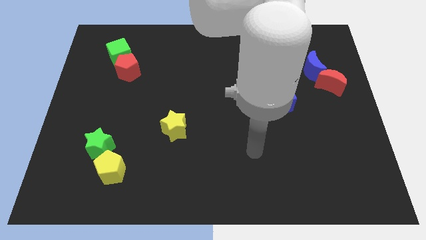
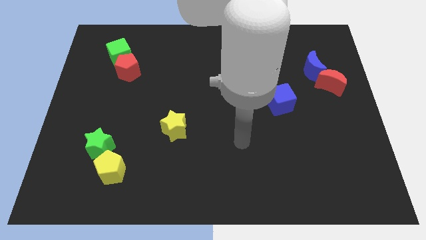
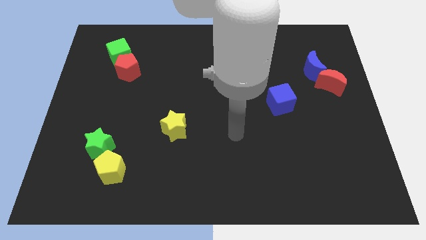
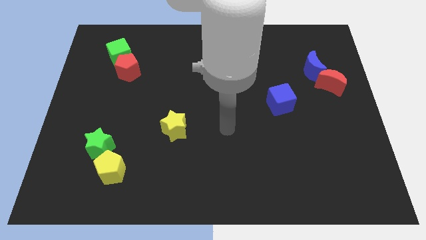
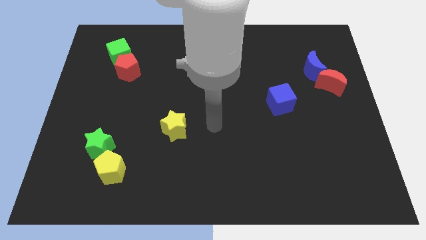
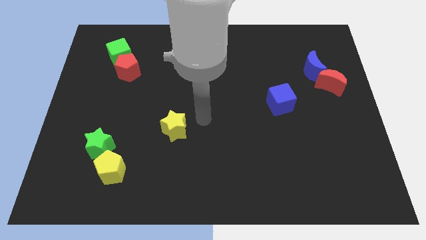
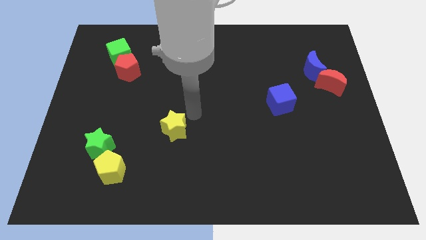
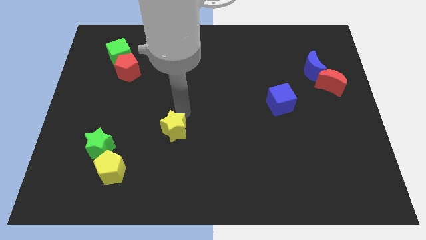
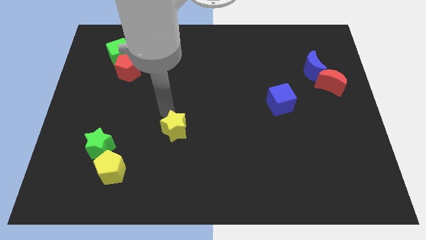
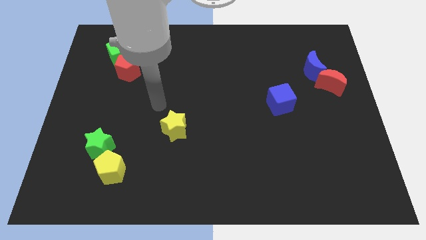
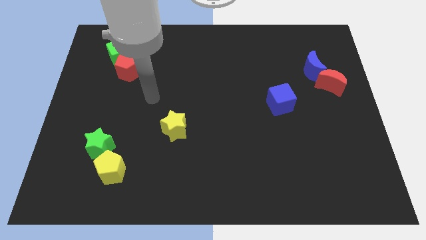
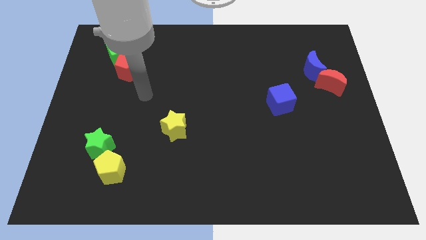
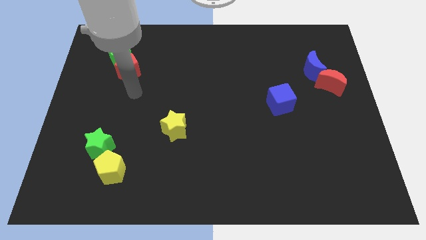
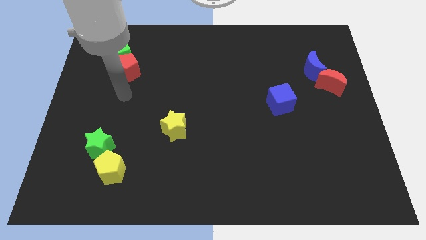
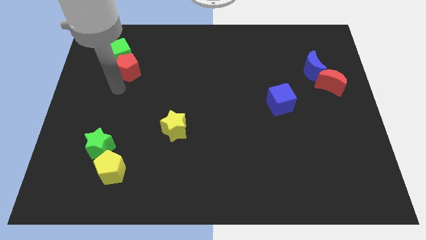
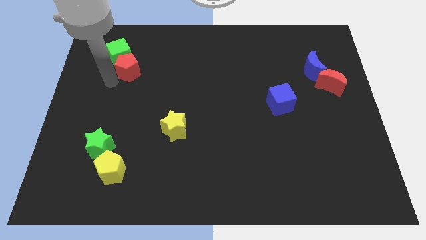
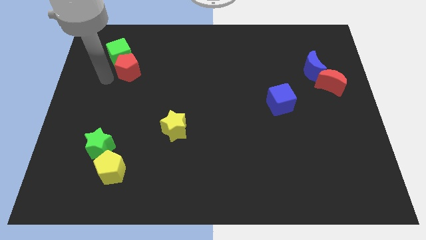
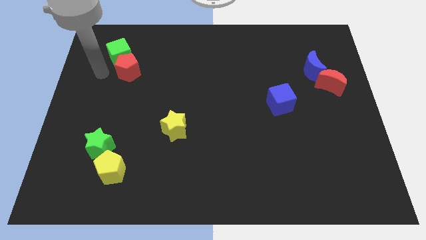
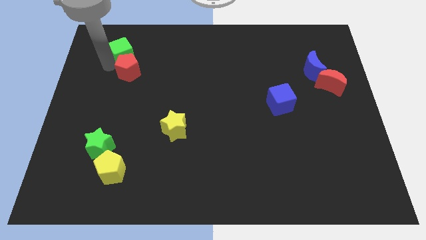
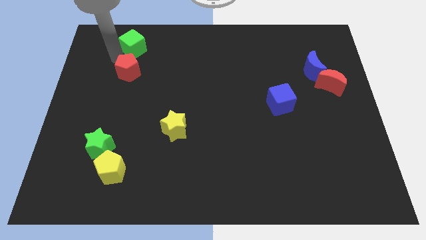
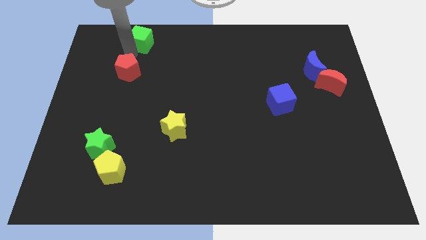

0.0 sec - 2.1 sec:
separate the red pentagon from the green cube

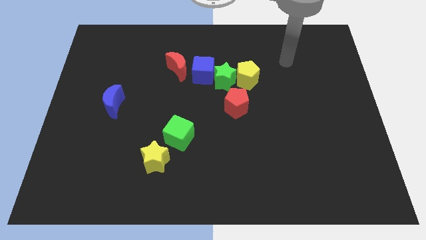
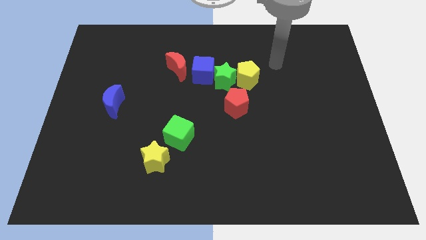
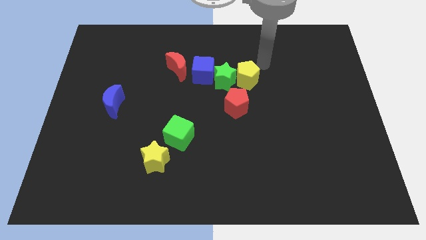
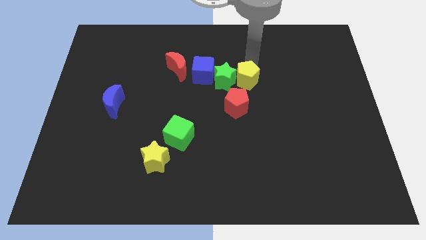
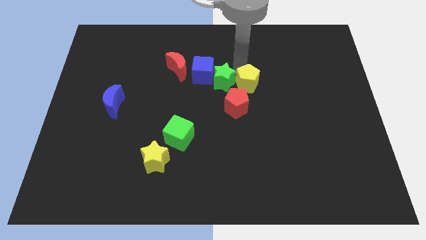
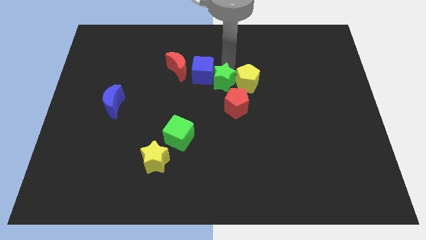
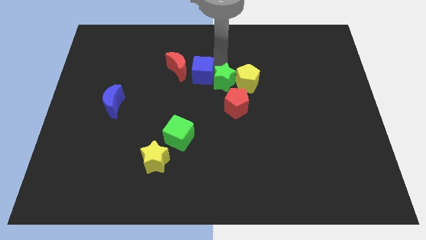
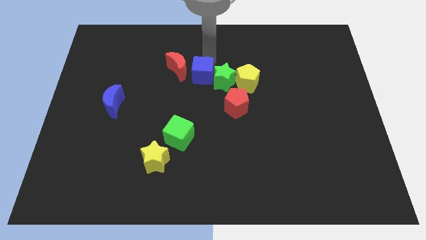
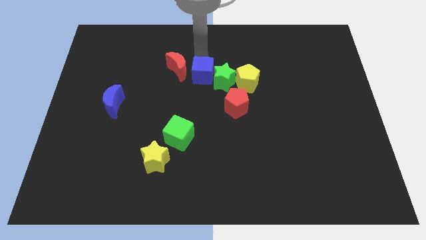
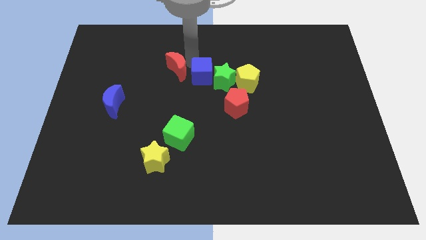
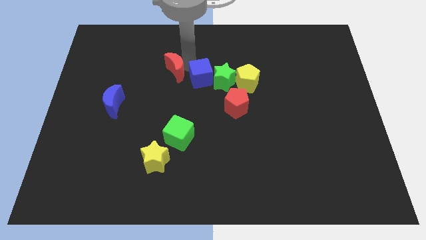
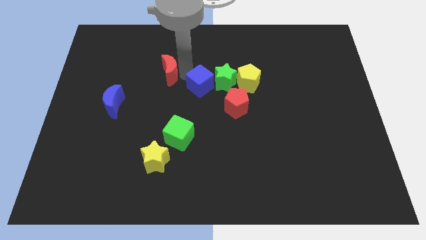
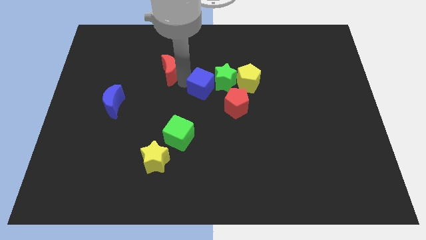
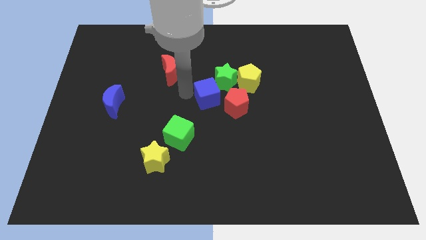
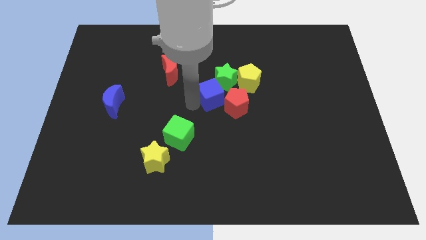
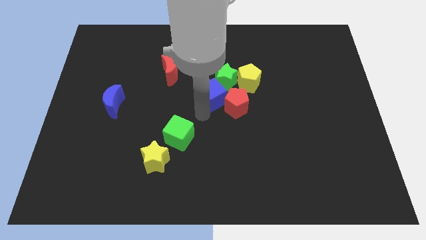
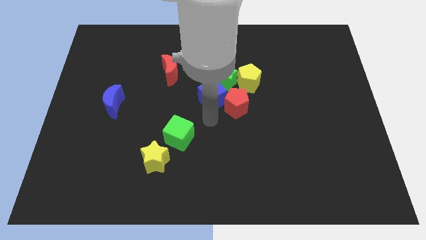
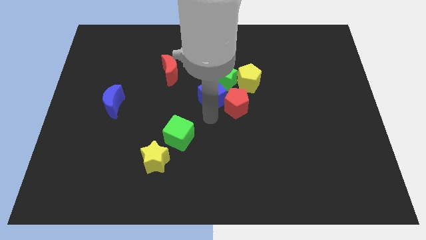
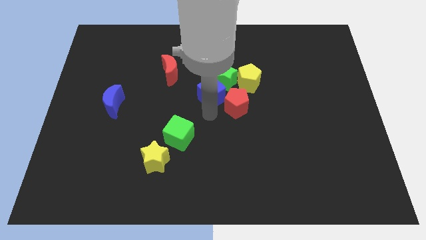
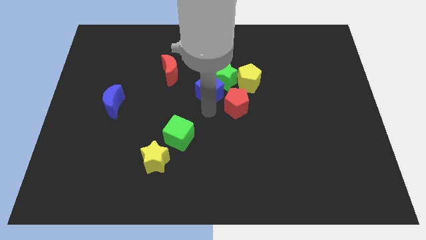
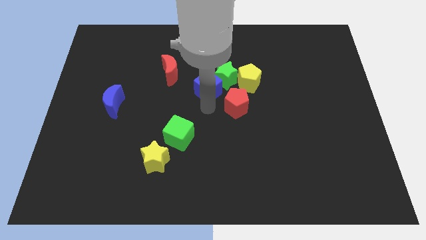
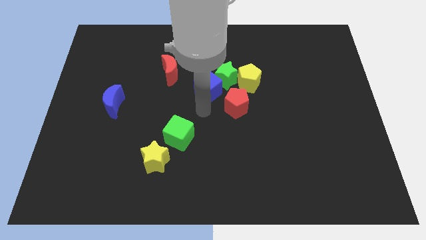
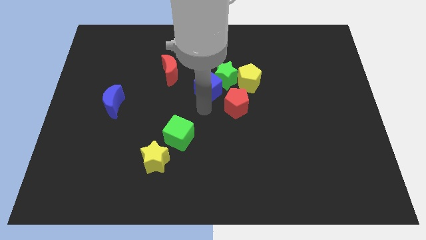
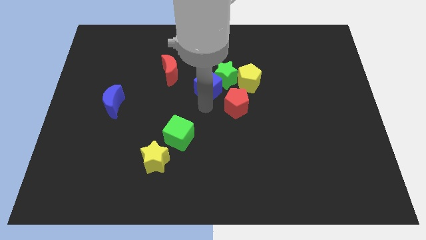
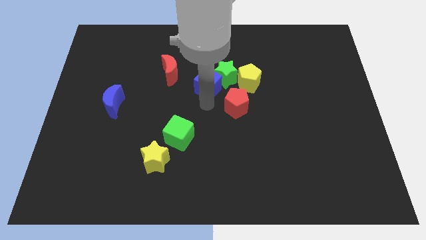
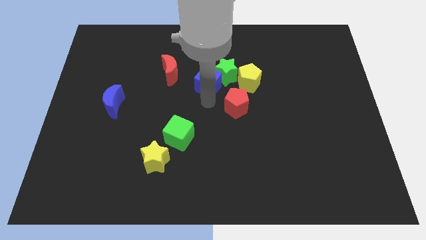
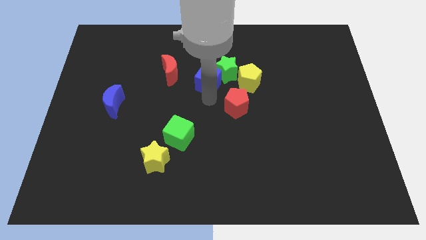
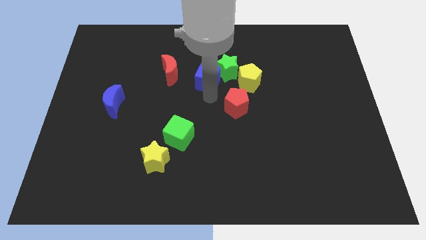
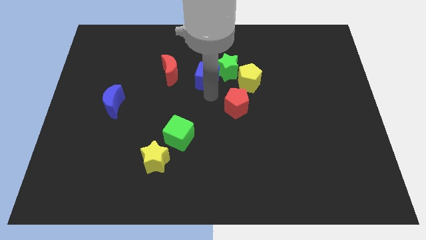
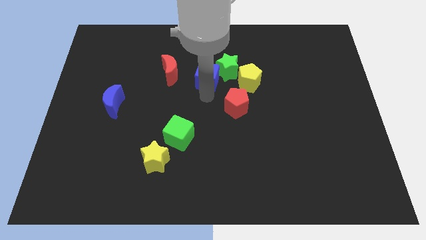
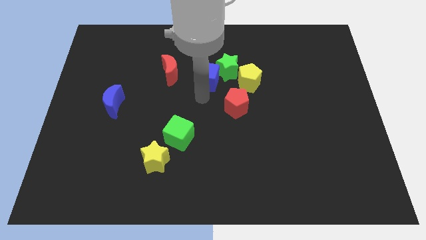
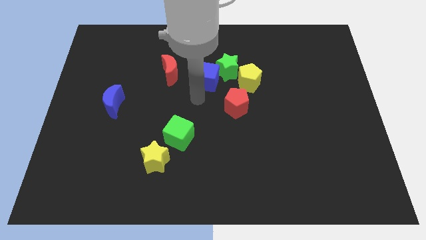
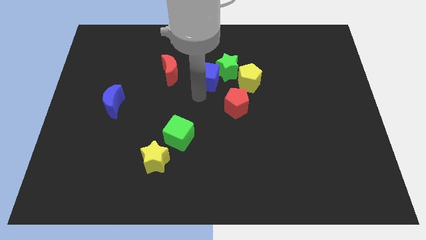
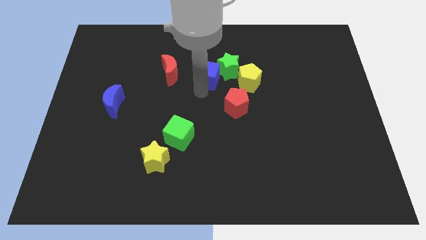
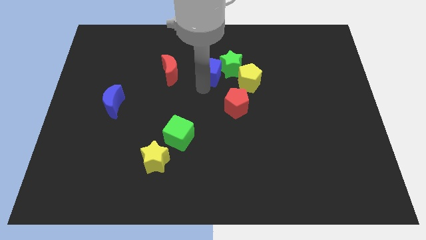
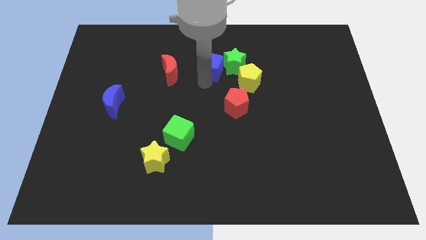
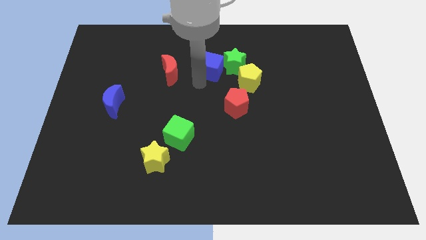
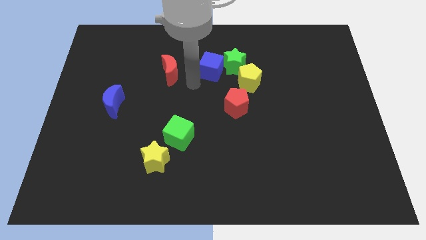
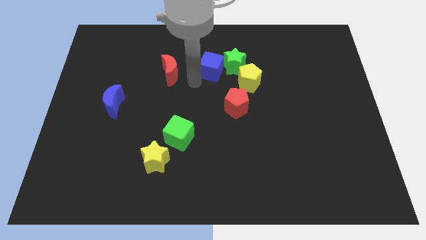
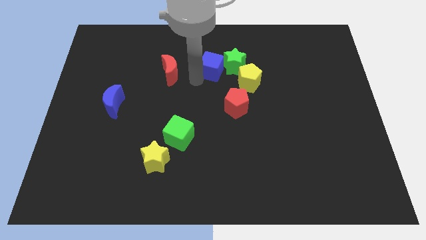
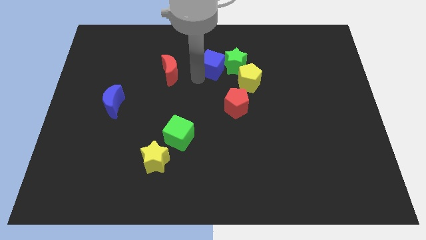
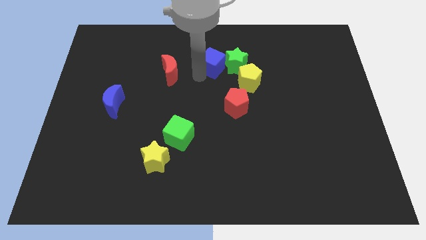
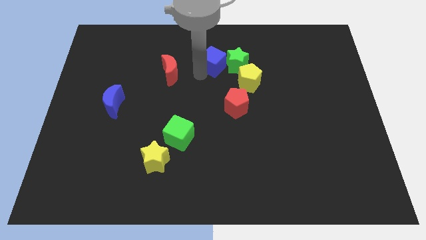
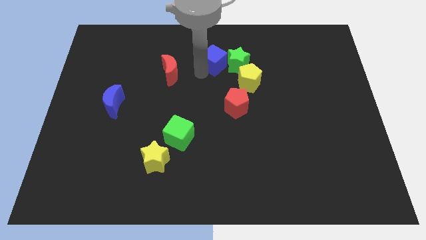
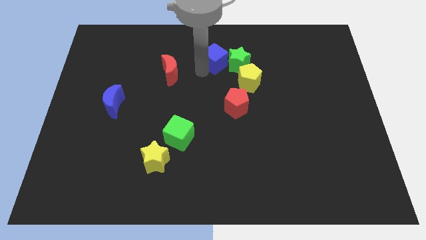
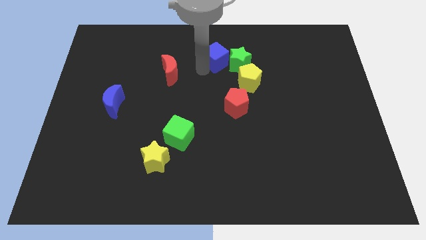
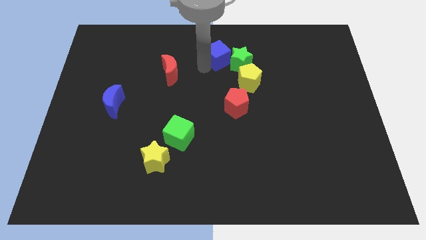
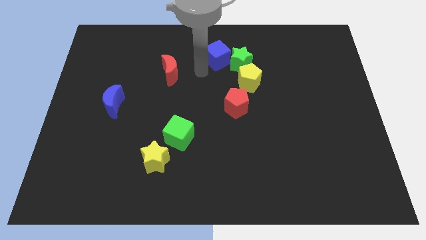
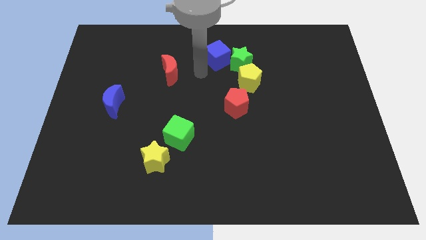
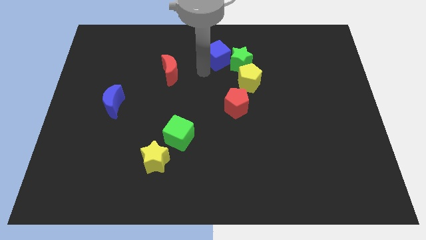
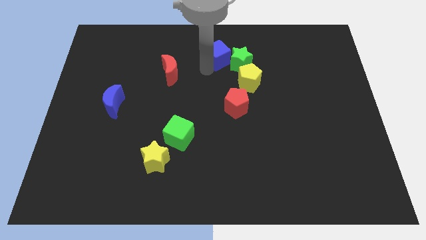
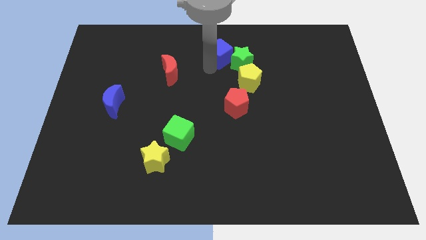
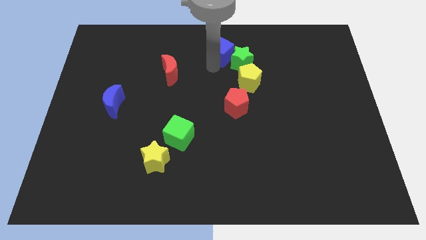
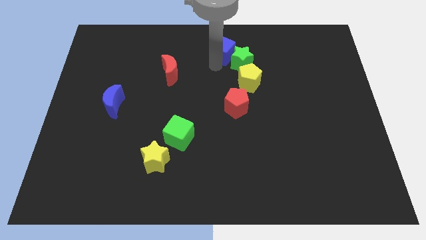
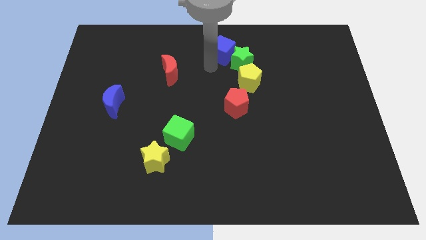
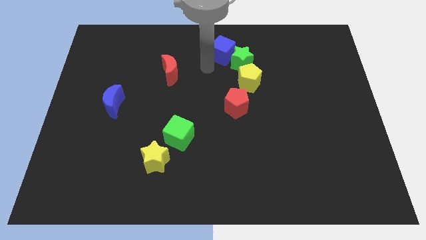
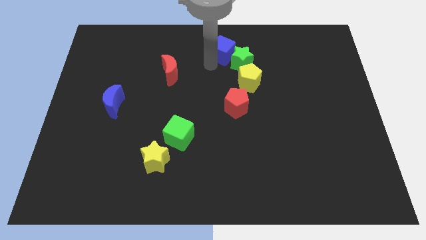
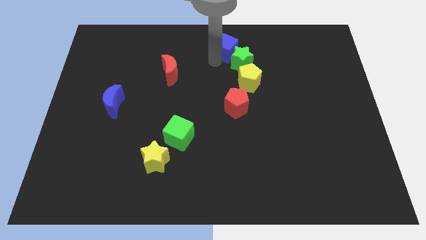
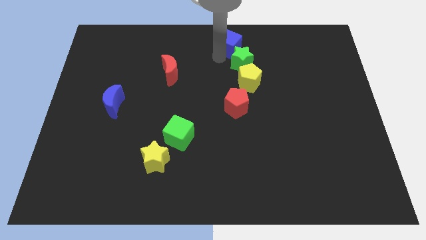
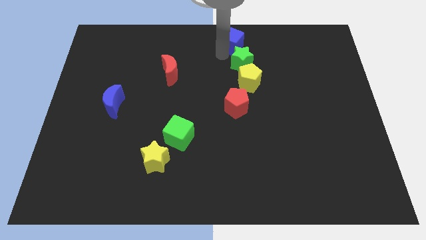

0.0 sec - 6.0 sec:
move the blue cube away from the green star and red moon

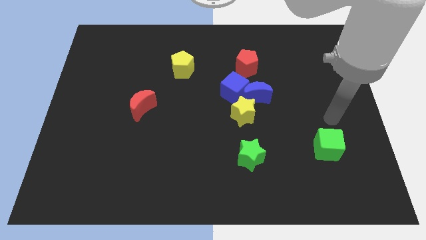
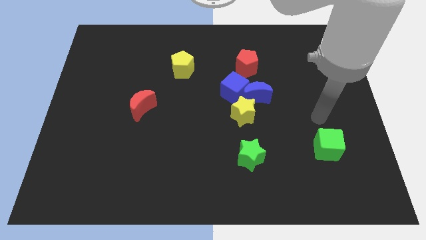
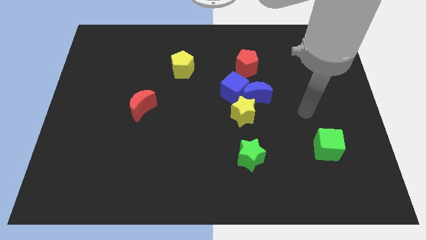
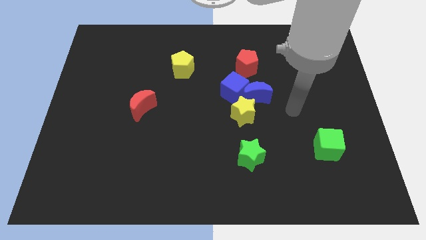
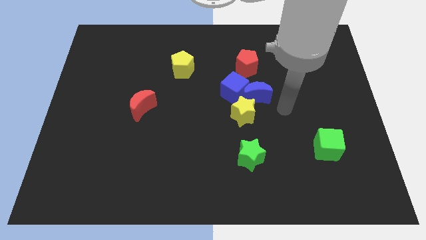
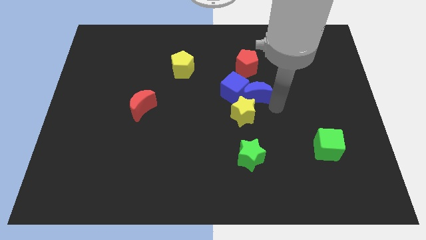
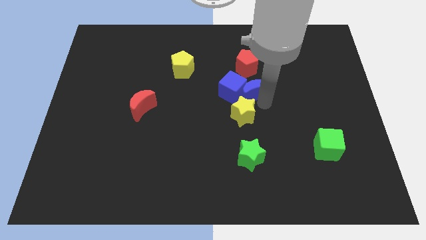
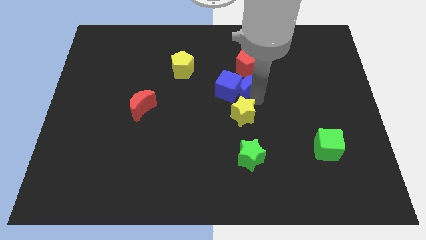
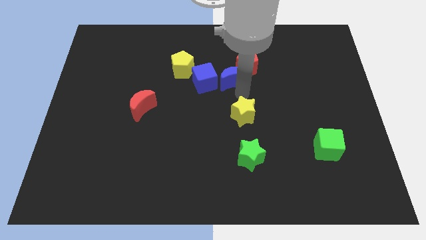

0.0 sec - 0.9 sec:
move the yellow star away from the blue moon and blue cube

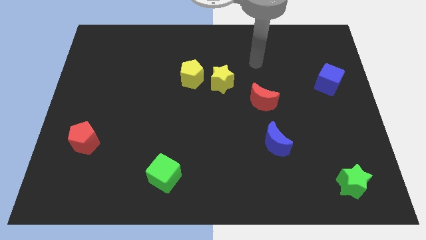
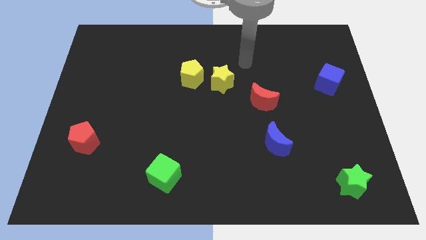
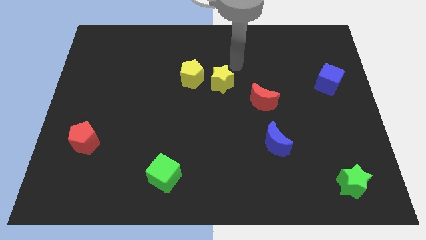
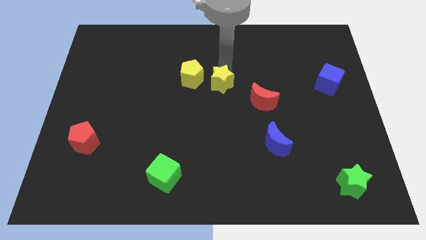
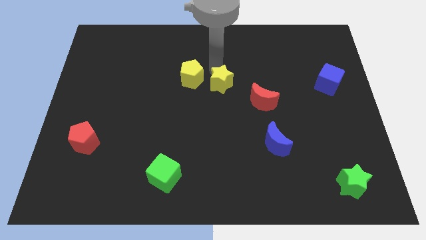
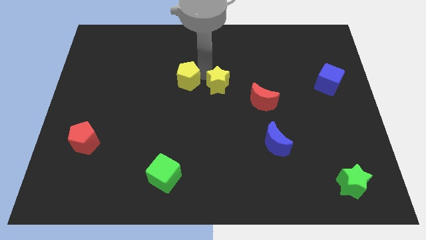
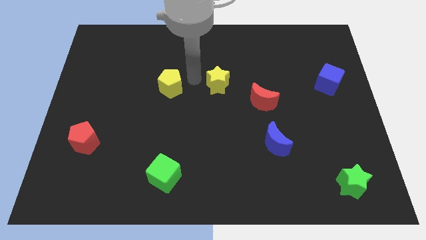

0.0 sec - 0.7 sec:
pull the yellow star apart from the yellow pentagon
